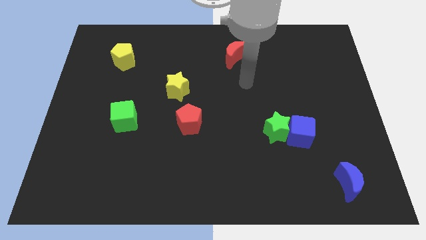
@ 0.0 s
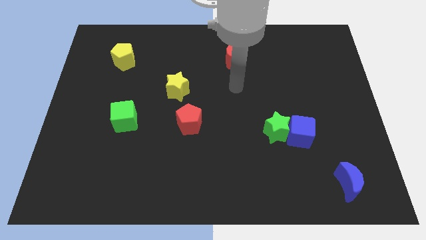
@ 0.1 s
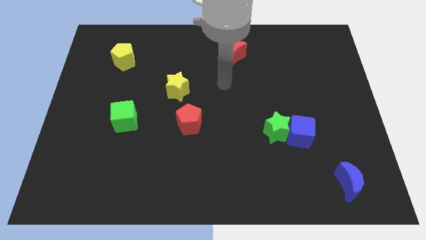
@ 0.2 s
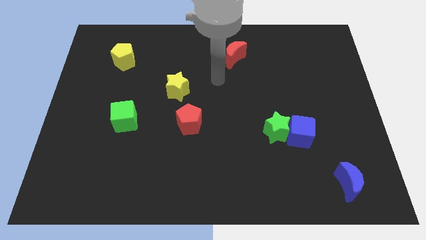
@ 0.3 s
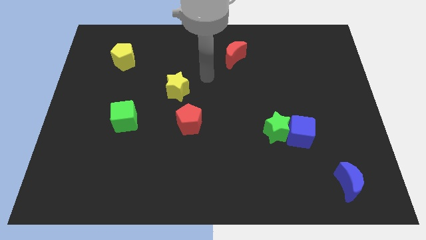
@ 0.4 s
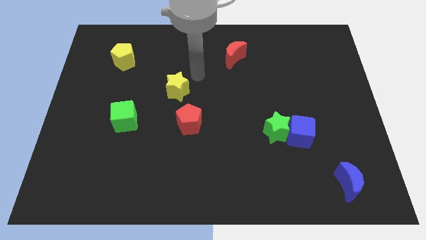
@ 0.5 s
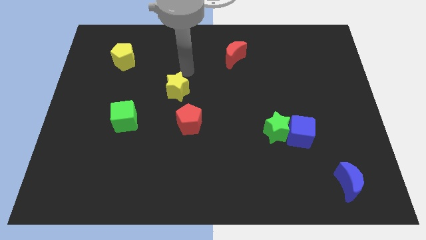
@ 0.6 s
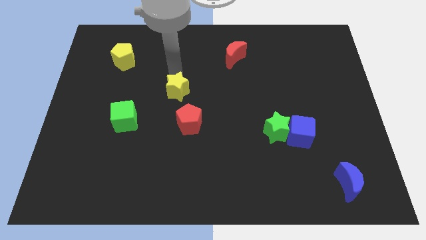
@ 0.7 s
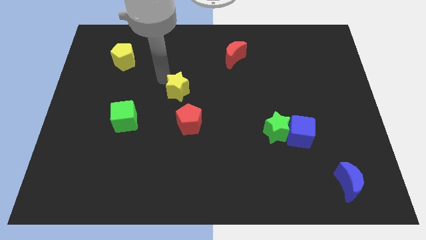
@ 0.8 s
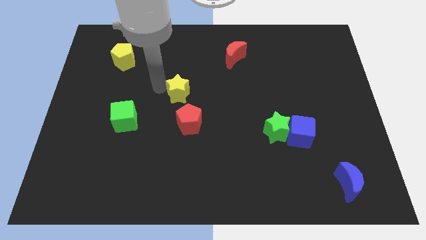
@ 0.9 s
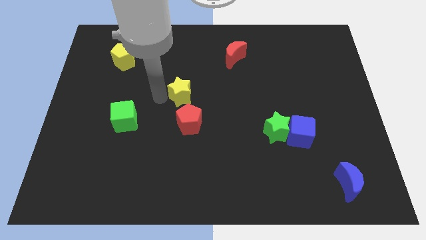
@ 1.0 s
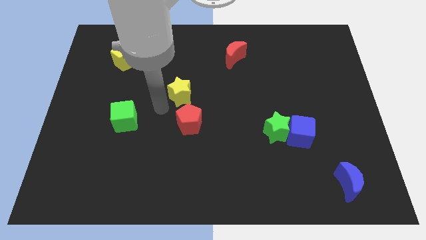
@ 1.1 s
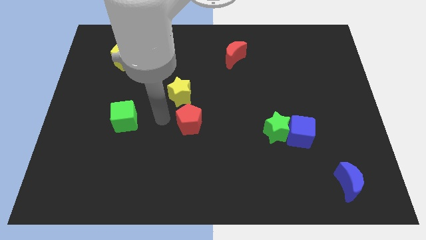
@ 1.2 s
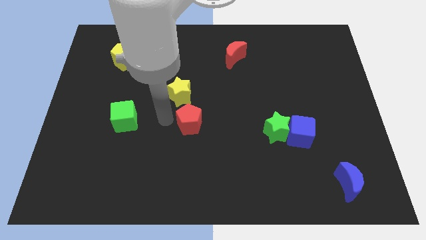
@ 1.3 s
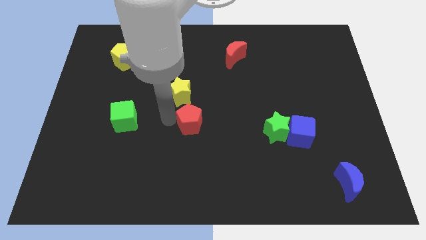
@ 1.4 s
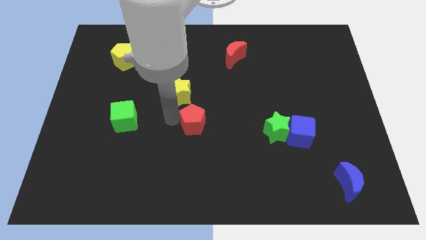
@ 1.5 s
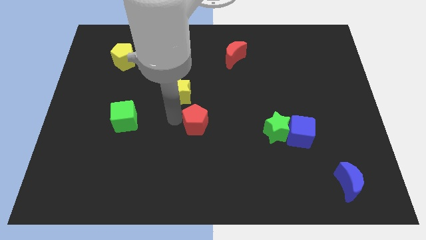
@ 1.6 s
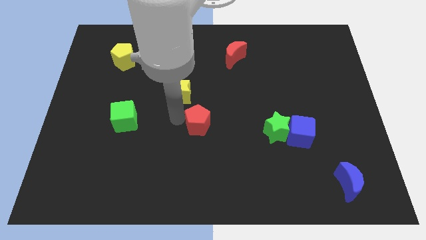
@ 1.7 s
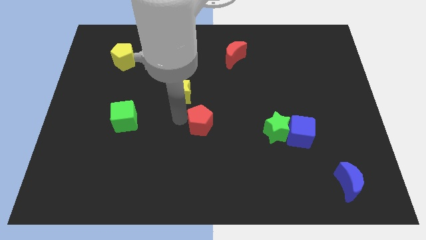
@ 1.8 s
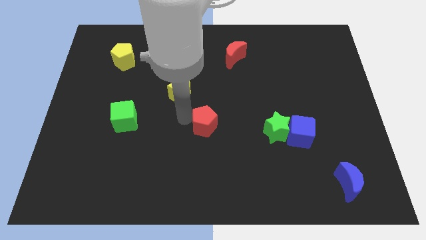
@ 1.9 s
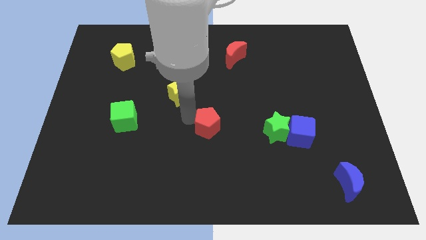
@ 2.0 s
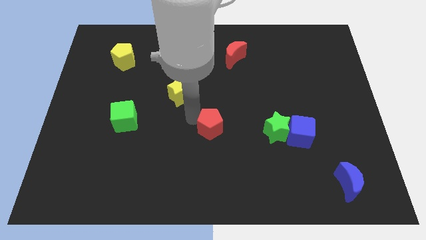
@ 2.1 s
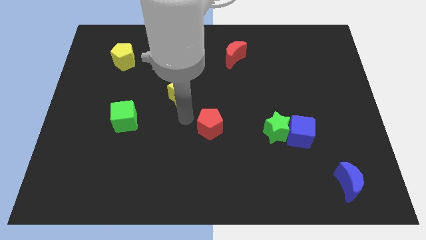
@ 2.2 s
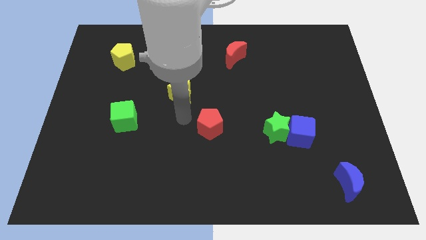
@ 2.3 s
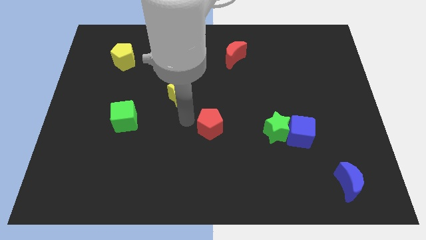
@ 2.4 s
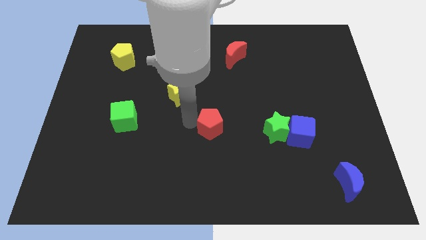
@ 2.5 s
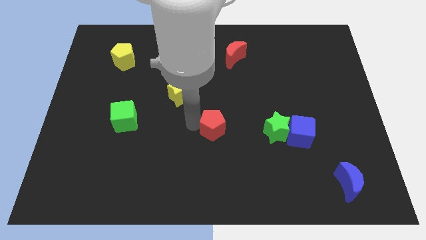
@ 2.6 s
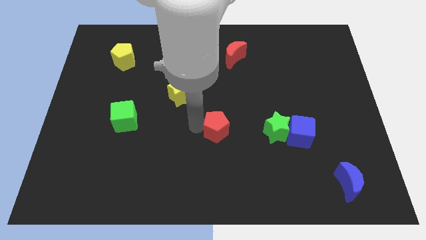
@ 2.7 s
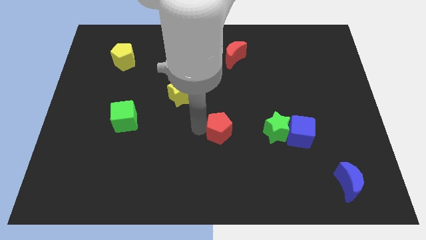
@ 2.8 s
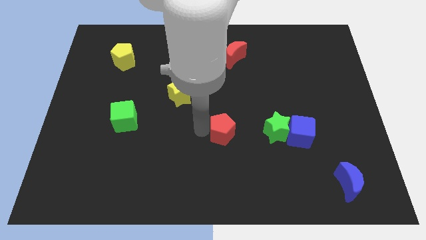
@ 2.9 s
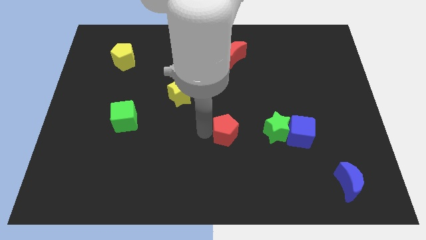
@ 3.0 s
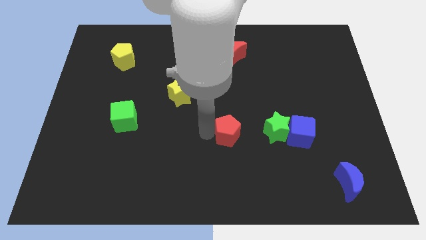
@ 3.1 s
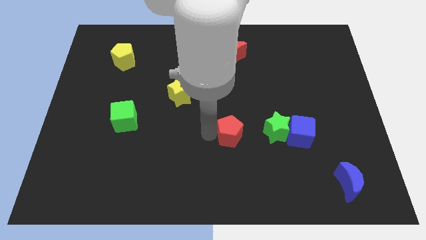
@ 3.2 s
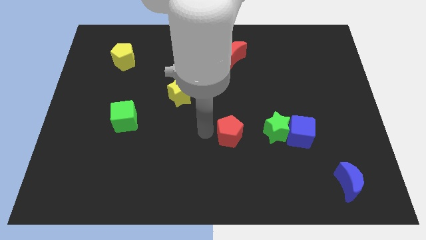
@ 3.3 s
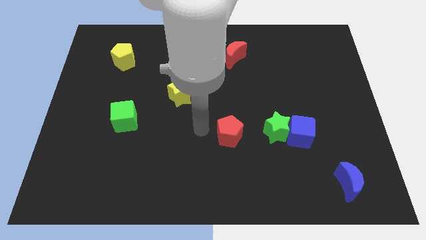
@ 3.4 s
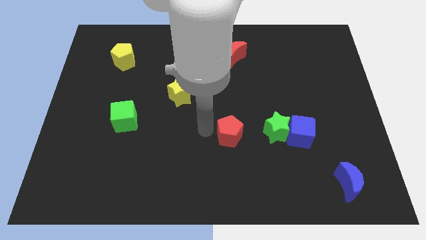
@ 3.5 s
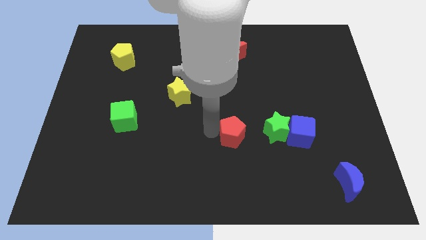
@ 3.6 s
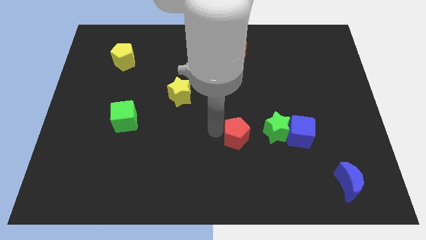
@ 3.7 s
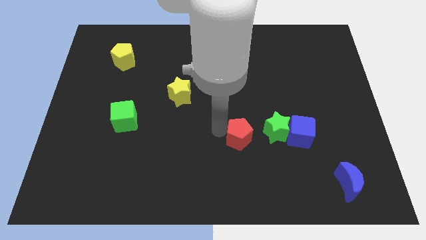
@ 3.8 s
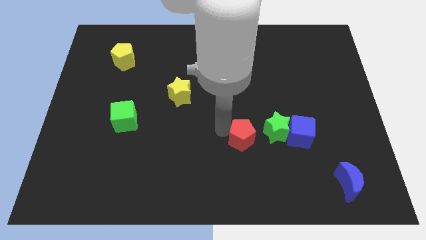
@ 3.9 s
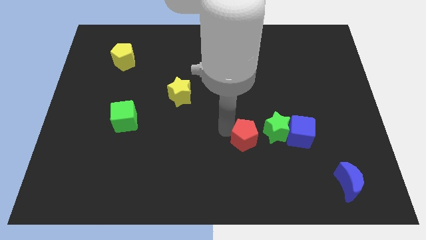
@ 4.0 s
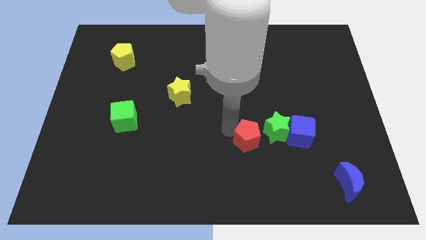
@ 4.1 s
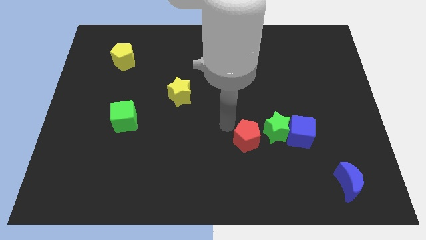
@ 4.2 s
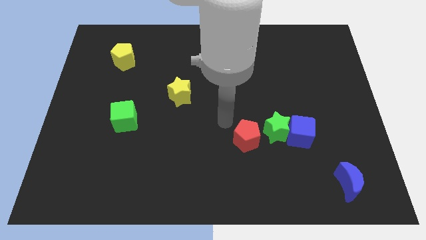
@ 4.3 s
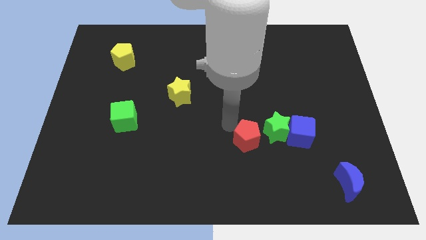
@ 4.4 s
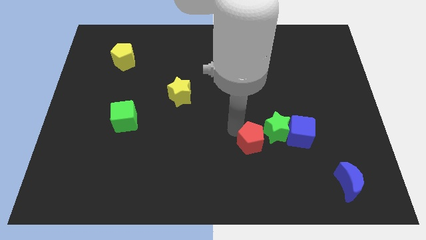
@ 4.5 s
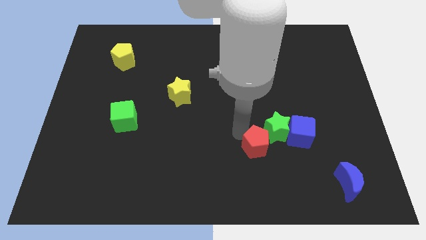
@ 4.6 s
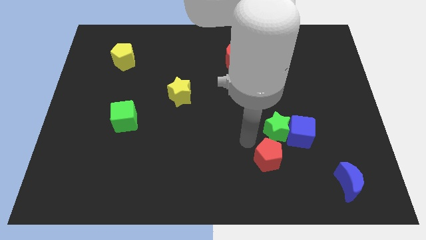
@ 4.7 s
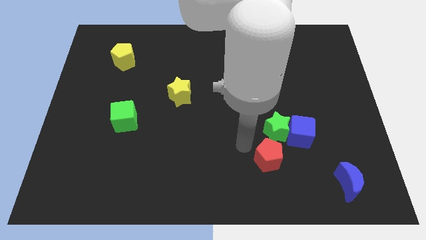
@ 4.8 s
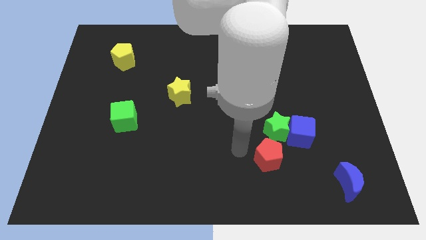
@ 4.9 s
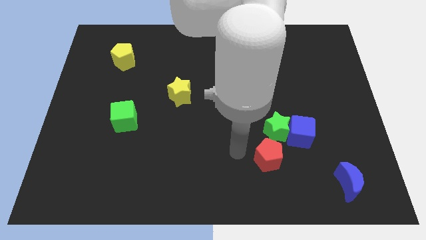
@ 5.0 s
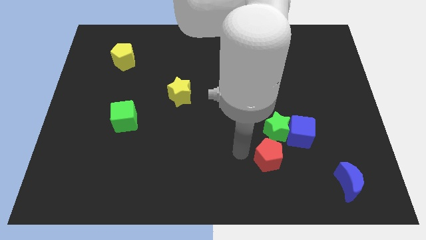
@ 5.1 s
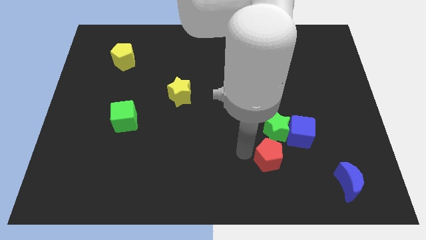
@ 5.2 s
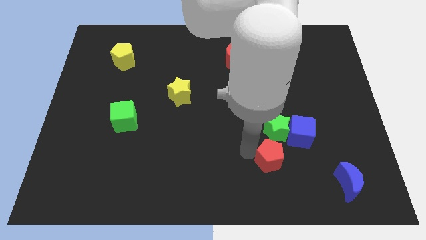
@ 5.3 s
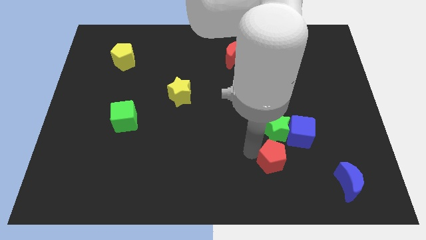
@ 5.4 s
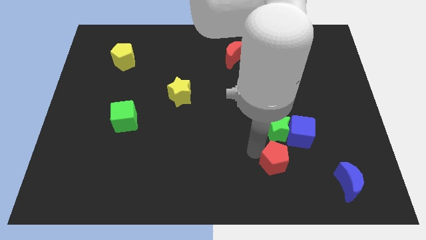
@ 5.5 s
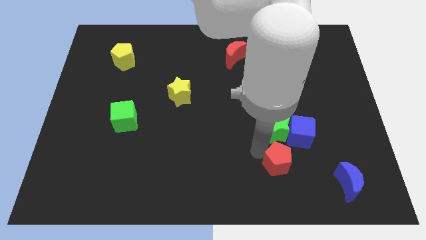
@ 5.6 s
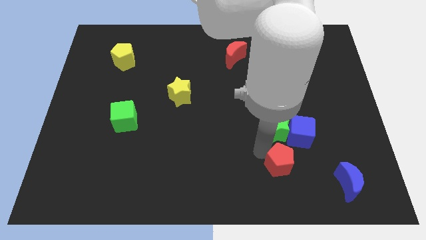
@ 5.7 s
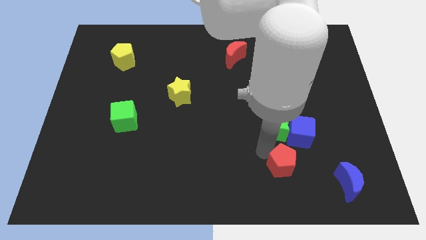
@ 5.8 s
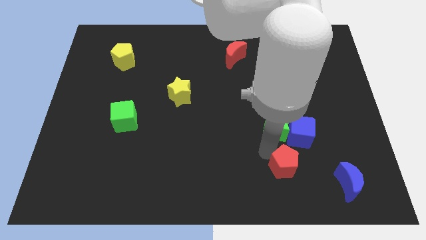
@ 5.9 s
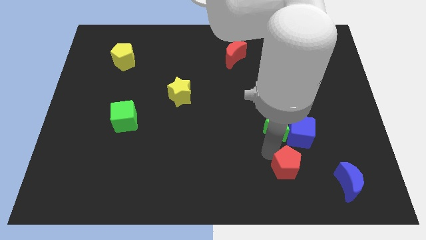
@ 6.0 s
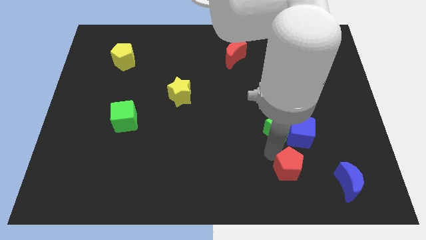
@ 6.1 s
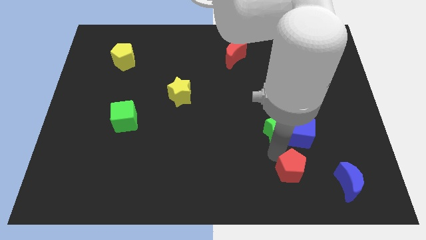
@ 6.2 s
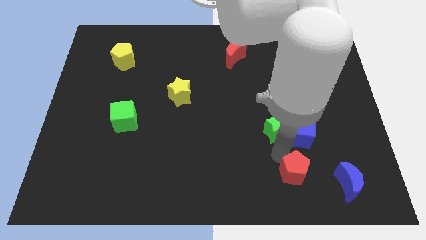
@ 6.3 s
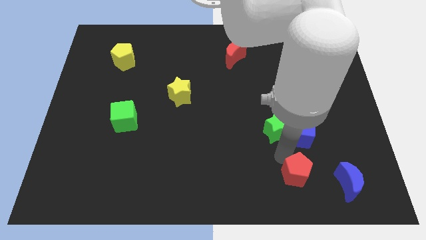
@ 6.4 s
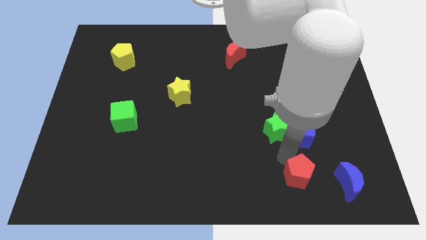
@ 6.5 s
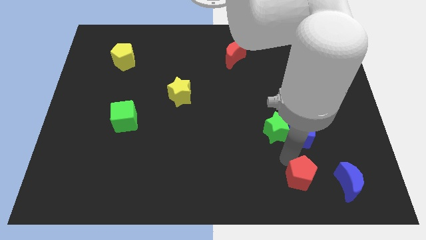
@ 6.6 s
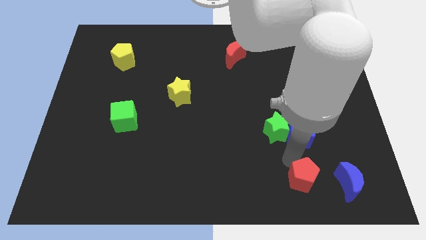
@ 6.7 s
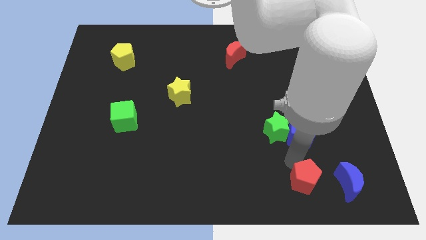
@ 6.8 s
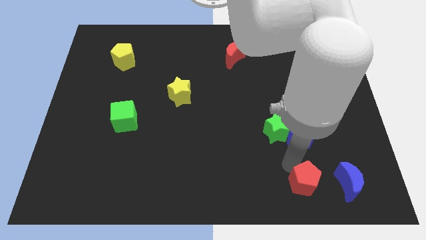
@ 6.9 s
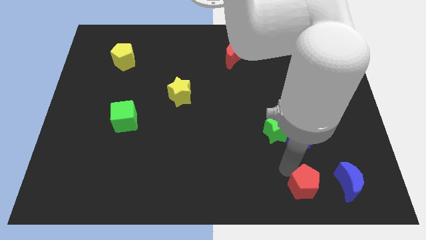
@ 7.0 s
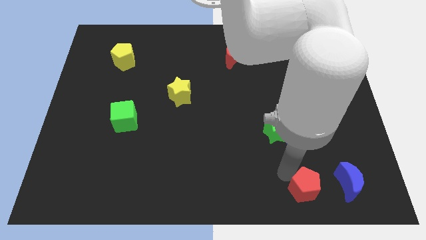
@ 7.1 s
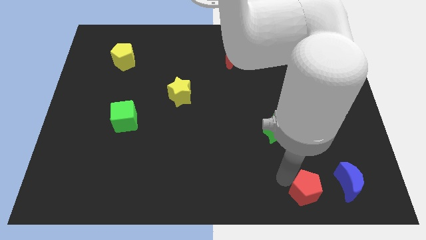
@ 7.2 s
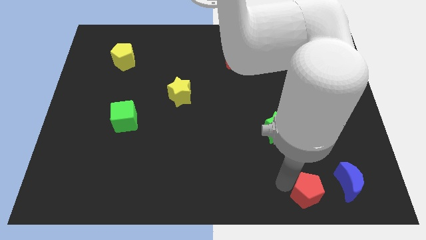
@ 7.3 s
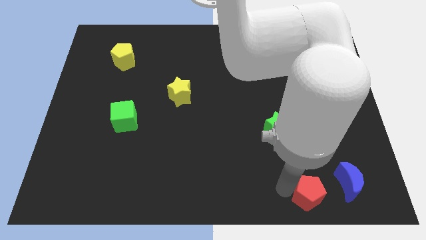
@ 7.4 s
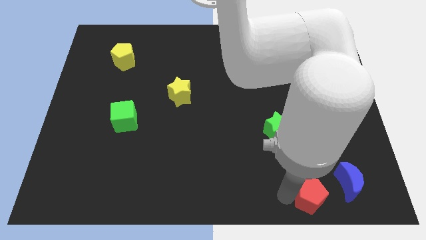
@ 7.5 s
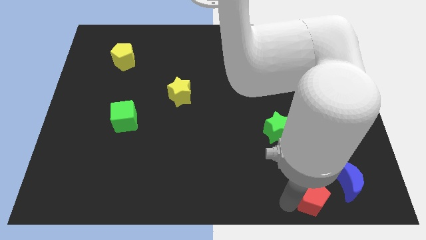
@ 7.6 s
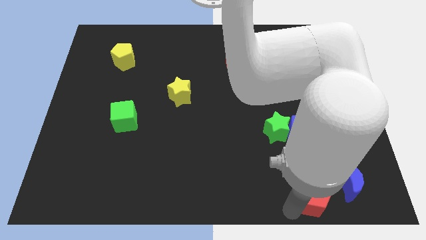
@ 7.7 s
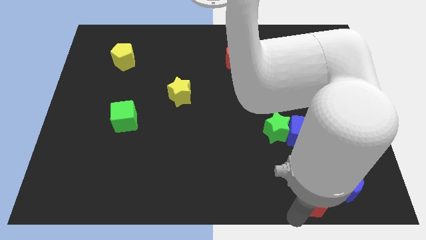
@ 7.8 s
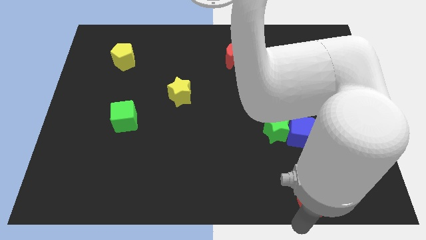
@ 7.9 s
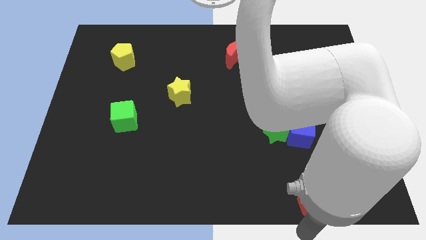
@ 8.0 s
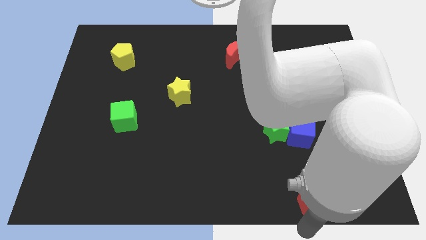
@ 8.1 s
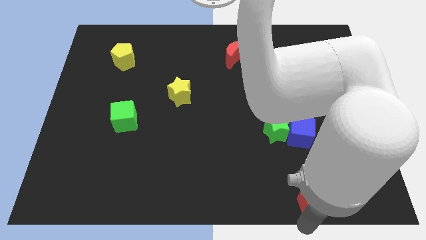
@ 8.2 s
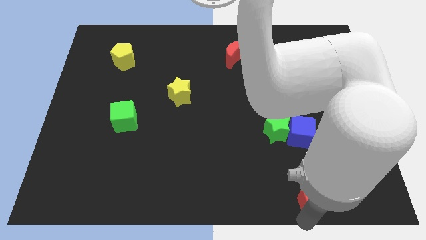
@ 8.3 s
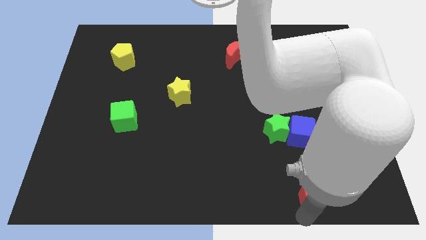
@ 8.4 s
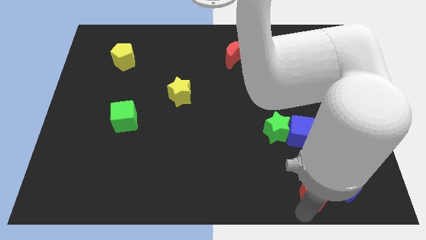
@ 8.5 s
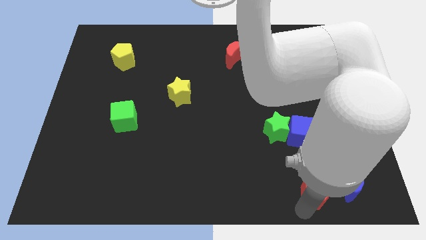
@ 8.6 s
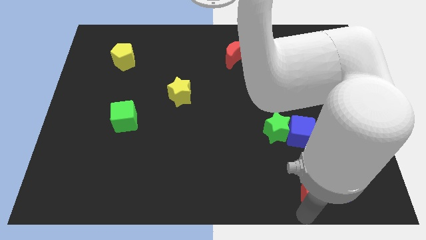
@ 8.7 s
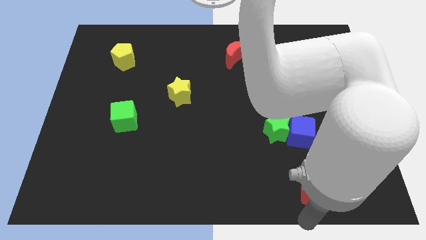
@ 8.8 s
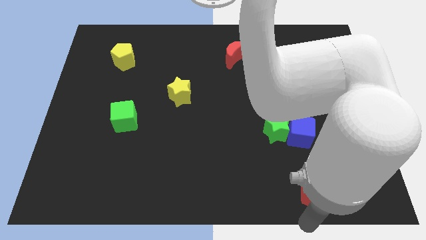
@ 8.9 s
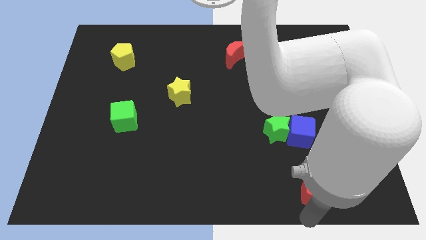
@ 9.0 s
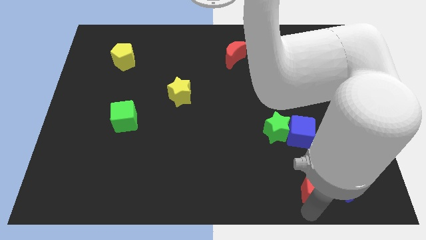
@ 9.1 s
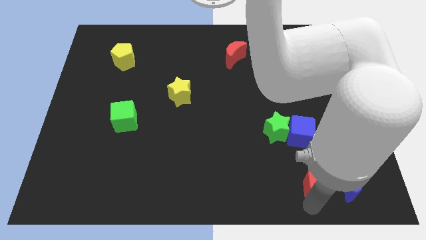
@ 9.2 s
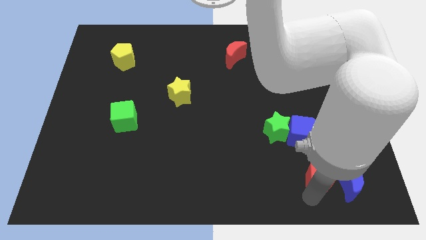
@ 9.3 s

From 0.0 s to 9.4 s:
push the red pentagon next to the blue moon
